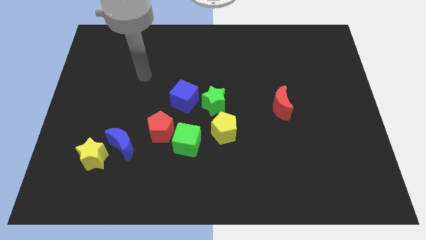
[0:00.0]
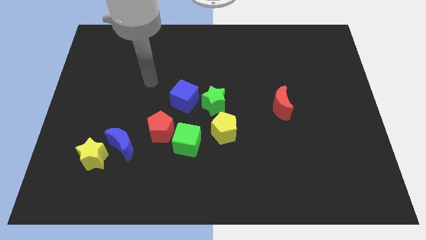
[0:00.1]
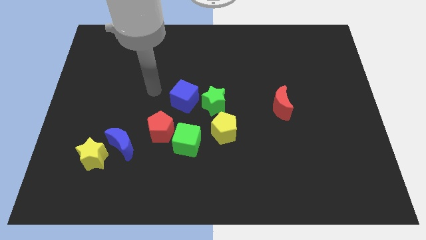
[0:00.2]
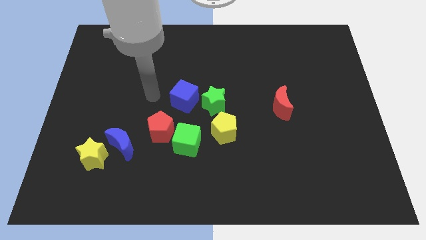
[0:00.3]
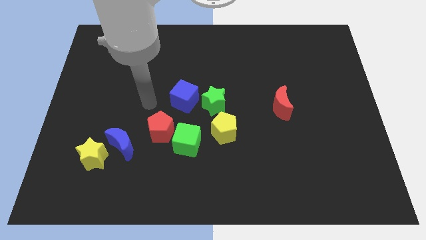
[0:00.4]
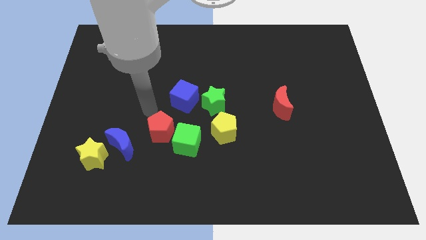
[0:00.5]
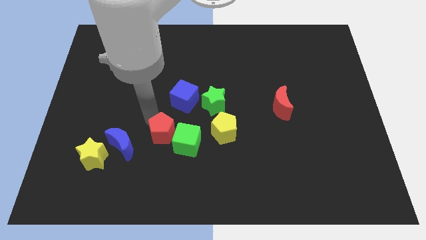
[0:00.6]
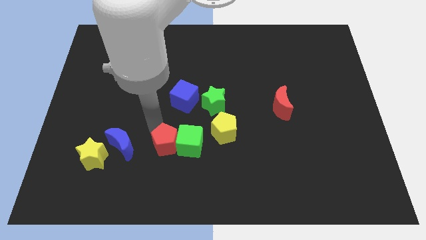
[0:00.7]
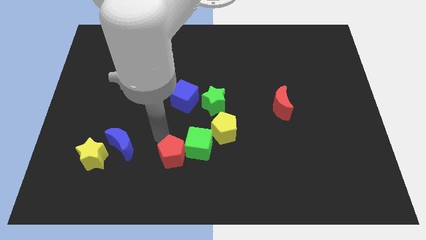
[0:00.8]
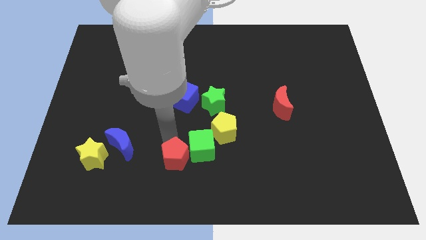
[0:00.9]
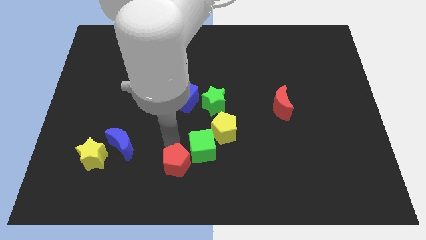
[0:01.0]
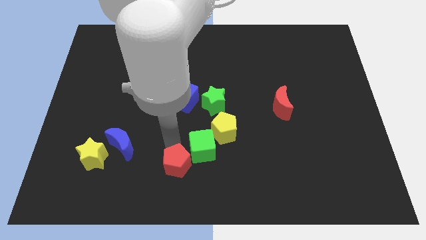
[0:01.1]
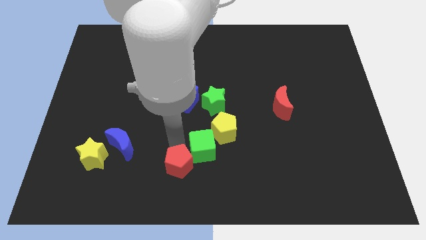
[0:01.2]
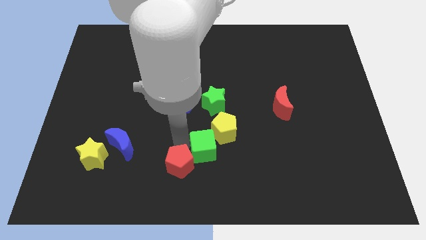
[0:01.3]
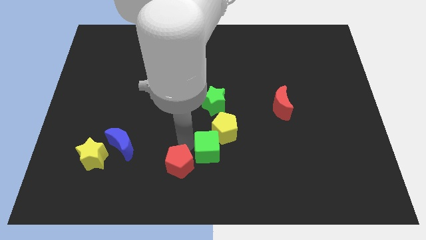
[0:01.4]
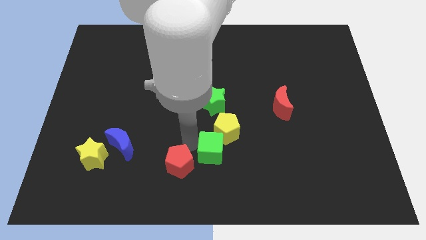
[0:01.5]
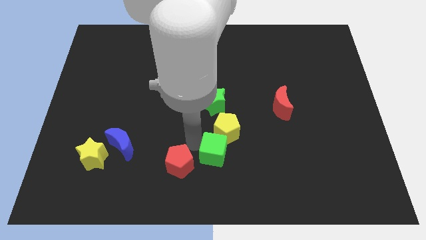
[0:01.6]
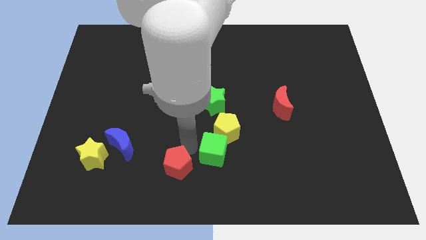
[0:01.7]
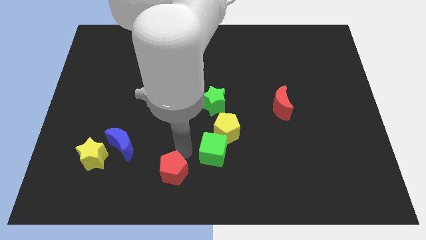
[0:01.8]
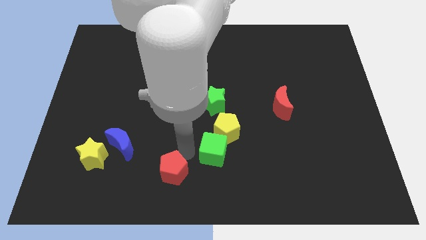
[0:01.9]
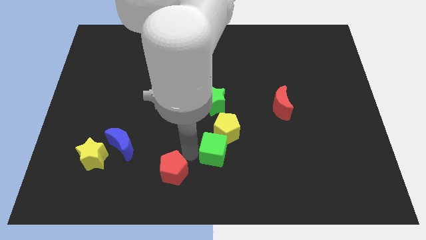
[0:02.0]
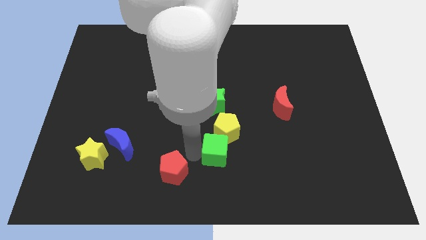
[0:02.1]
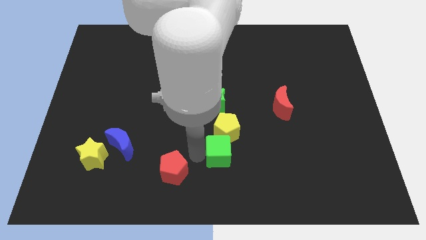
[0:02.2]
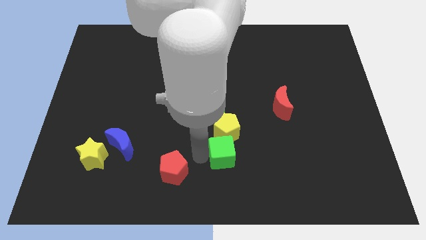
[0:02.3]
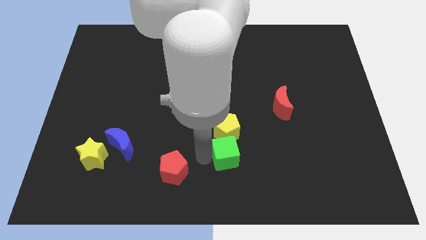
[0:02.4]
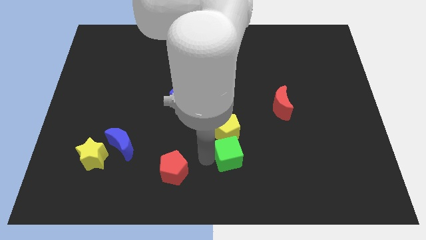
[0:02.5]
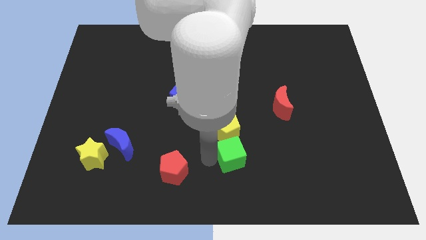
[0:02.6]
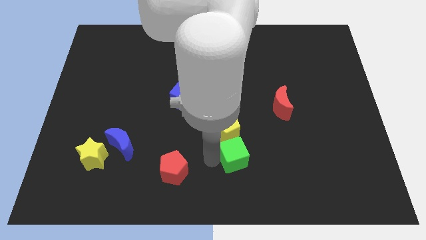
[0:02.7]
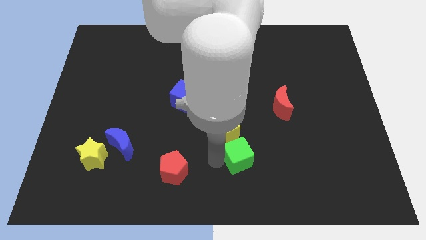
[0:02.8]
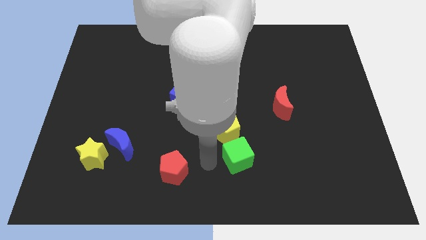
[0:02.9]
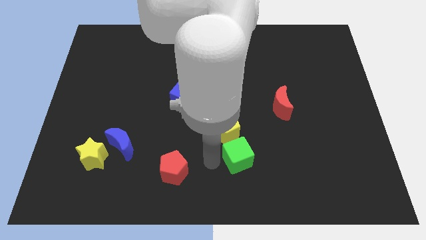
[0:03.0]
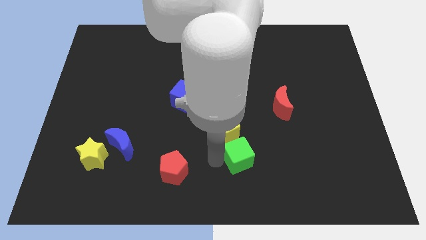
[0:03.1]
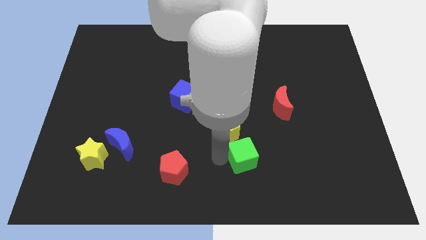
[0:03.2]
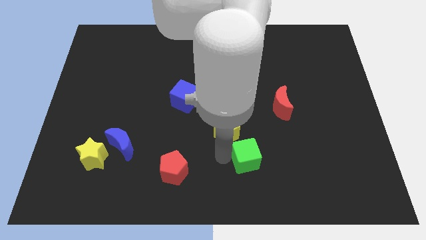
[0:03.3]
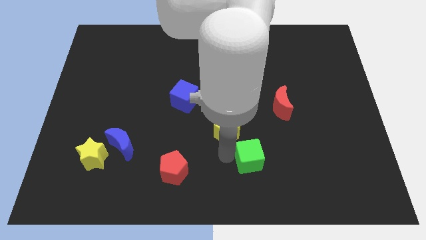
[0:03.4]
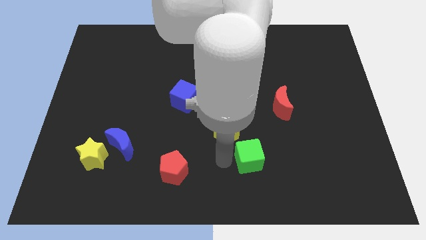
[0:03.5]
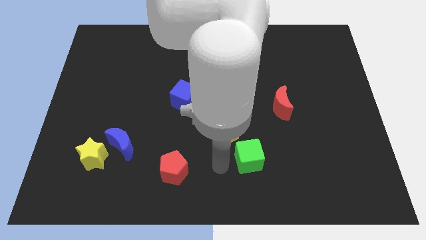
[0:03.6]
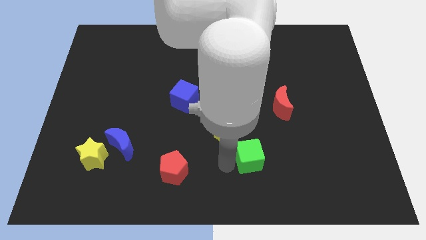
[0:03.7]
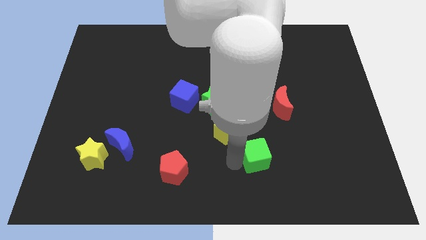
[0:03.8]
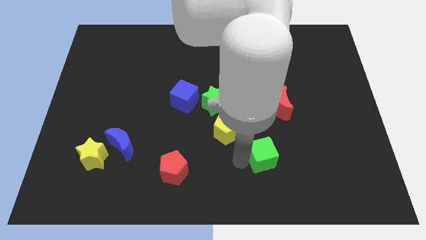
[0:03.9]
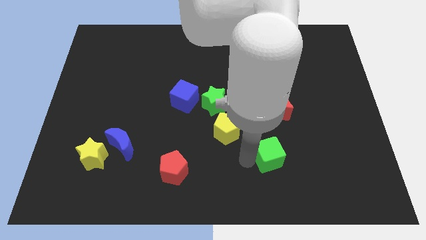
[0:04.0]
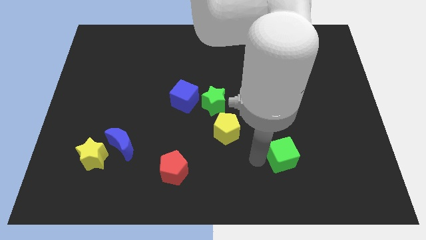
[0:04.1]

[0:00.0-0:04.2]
move the green cube right

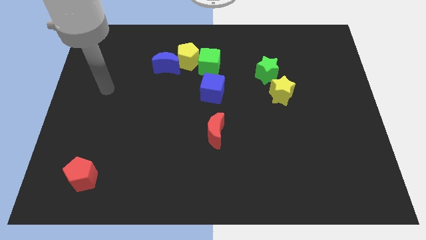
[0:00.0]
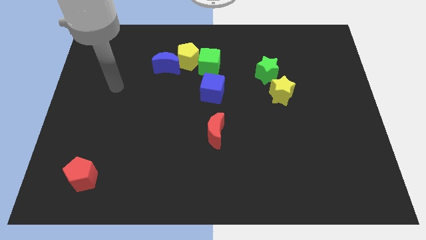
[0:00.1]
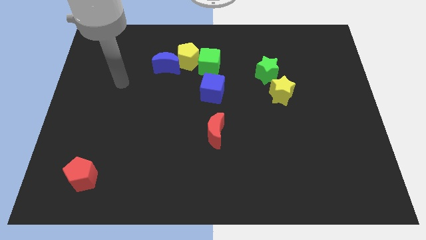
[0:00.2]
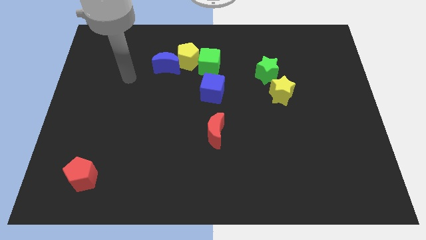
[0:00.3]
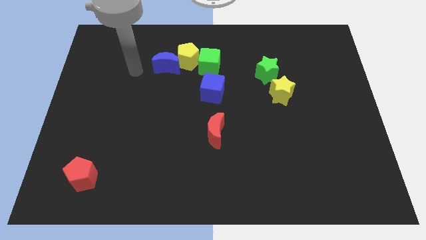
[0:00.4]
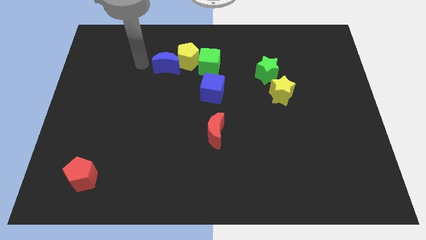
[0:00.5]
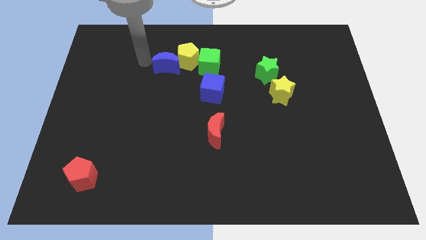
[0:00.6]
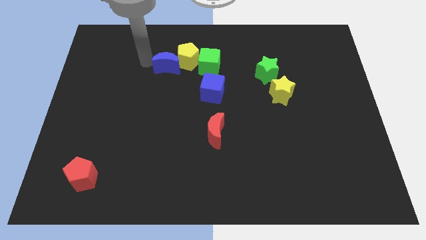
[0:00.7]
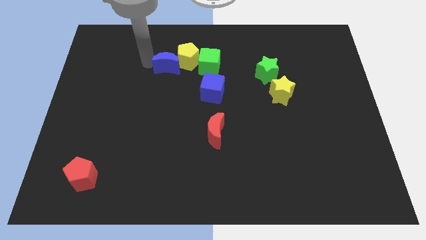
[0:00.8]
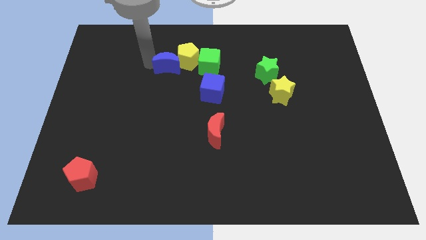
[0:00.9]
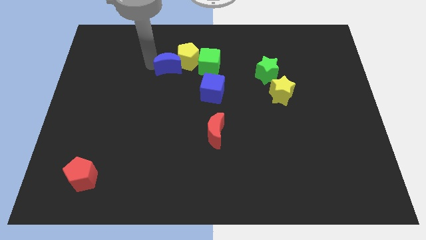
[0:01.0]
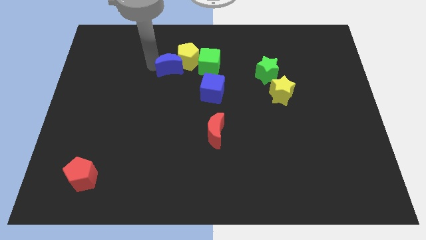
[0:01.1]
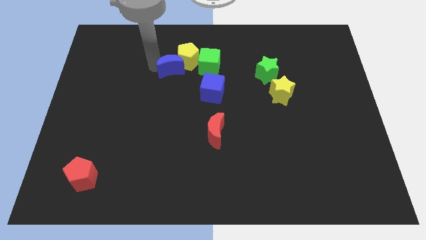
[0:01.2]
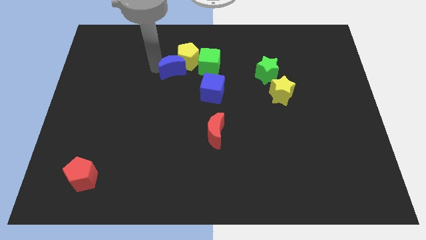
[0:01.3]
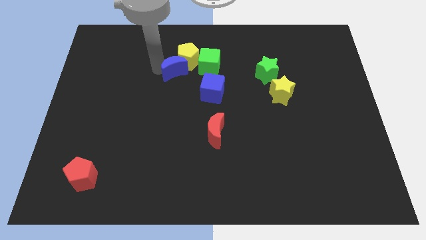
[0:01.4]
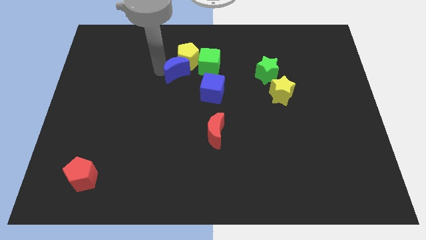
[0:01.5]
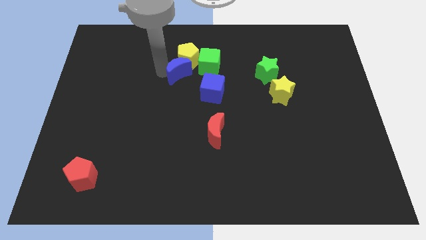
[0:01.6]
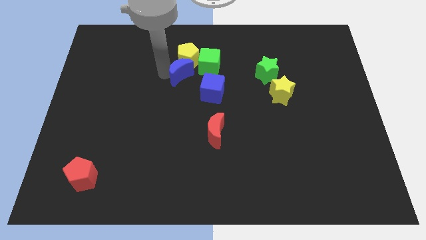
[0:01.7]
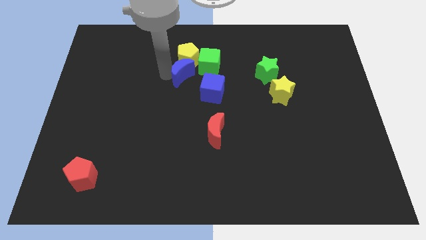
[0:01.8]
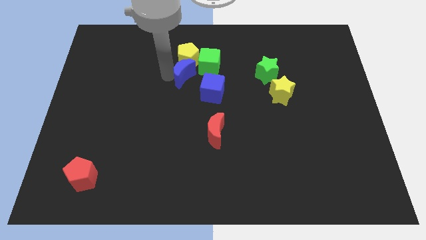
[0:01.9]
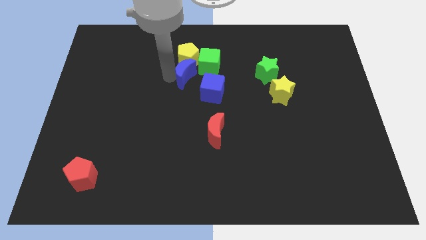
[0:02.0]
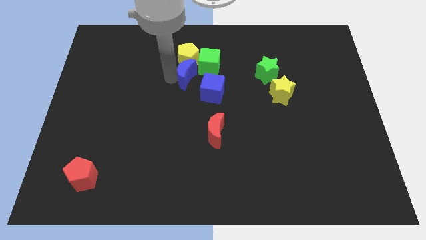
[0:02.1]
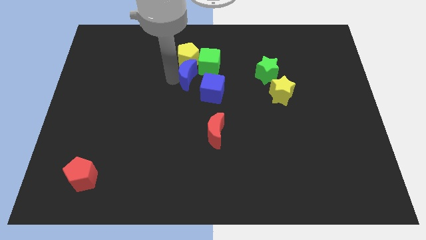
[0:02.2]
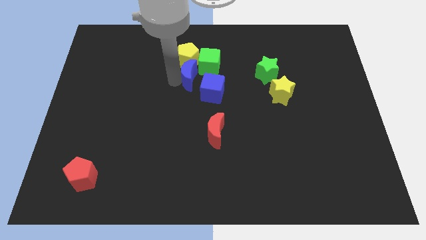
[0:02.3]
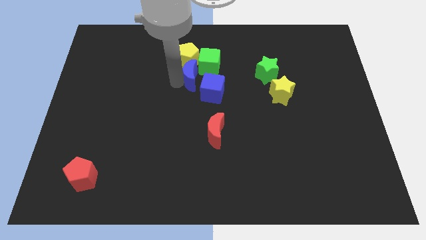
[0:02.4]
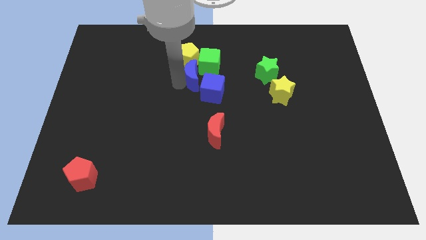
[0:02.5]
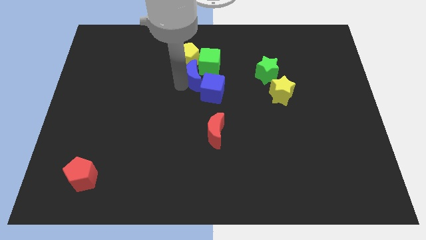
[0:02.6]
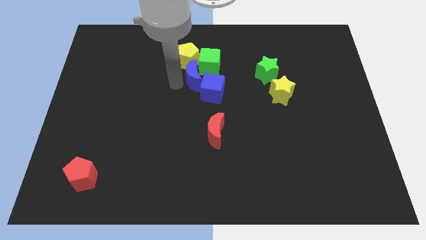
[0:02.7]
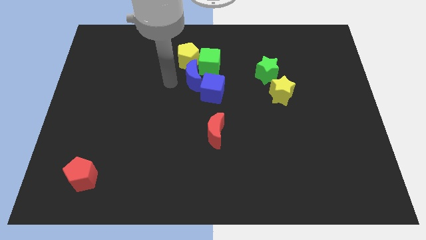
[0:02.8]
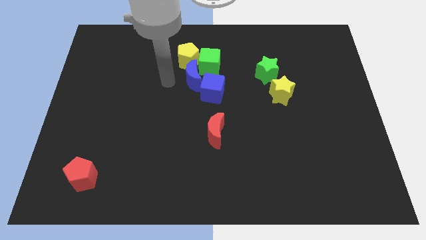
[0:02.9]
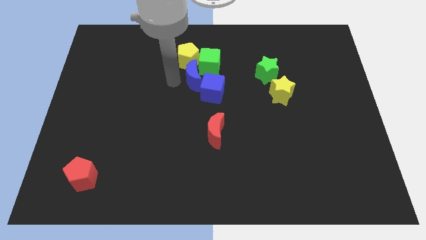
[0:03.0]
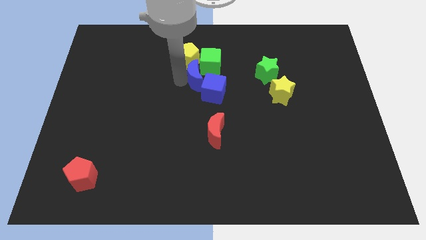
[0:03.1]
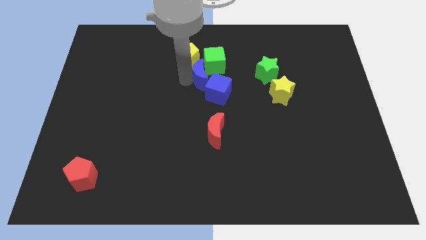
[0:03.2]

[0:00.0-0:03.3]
slightly slide the blue moon right

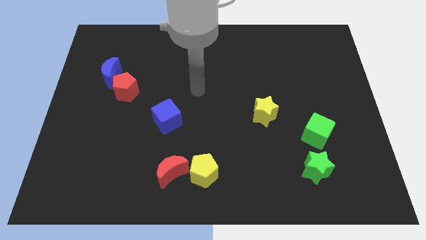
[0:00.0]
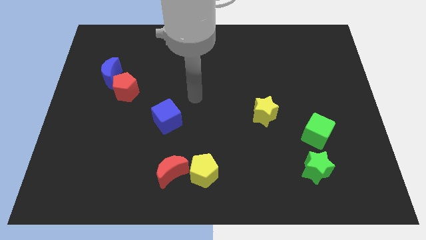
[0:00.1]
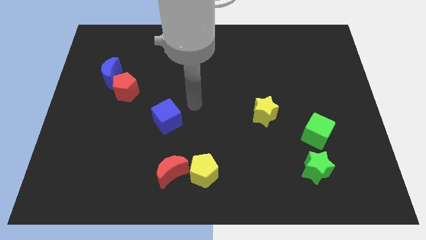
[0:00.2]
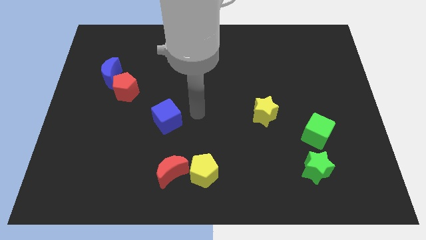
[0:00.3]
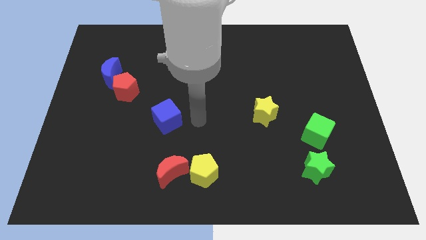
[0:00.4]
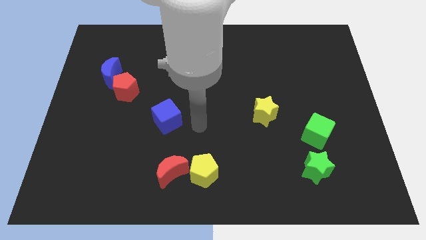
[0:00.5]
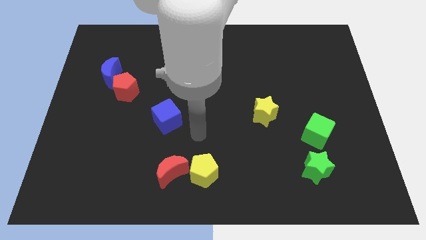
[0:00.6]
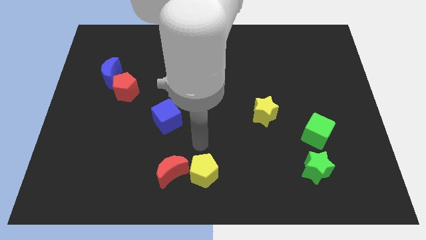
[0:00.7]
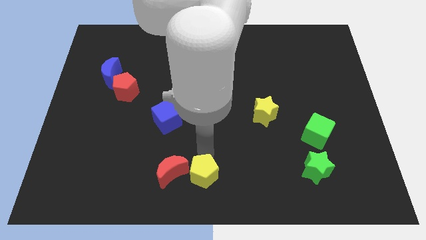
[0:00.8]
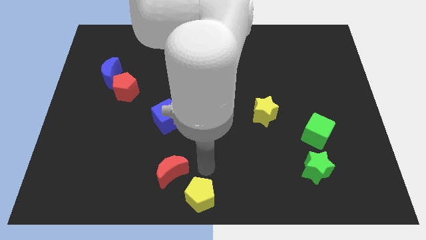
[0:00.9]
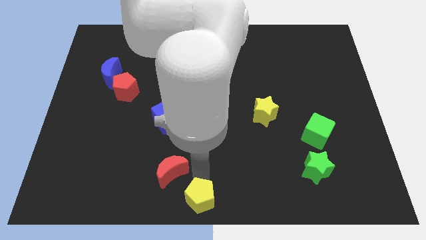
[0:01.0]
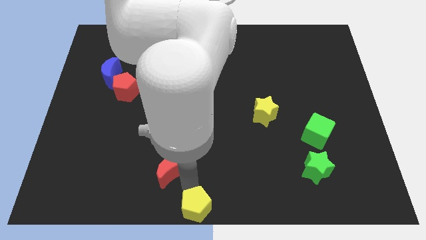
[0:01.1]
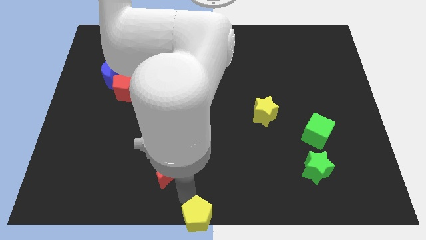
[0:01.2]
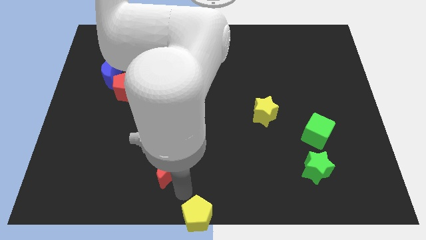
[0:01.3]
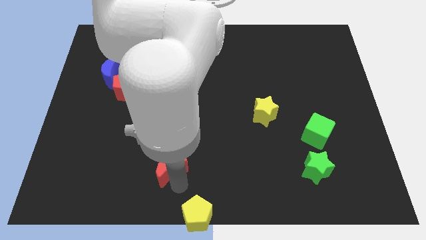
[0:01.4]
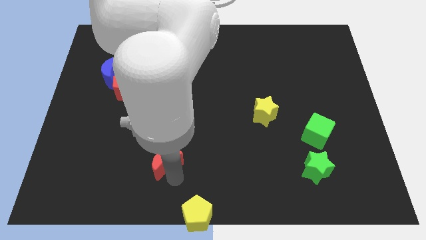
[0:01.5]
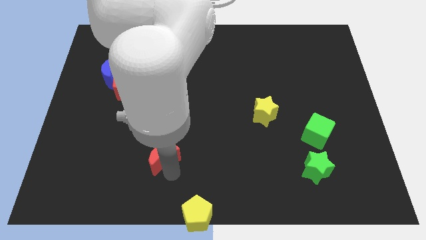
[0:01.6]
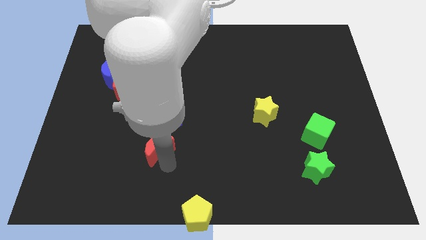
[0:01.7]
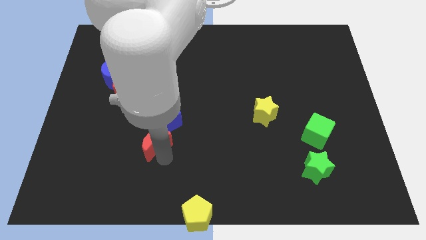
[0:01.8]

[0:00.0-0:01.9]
slightly push the red moon upwards and to the left
